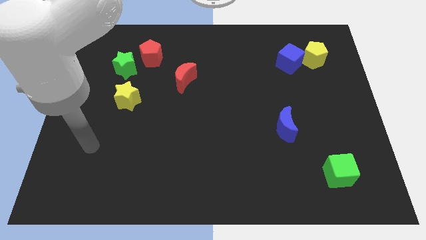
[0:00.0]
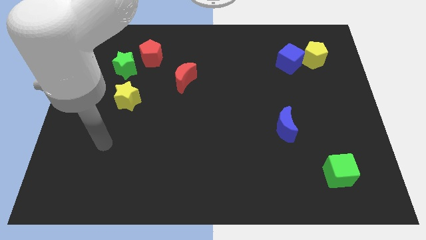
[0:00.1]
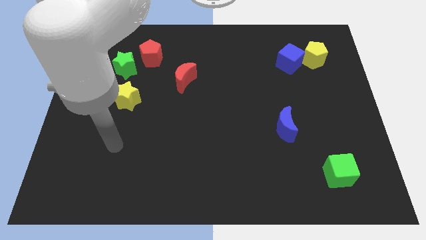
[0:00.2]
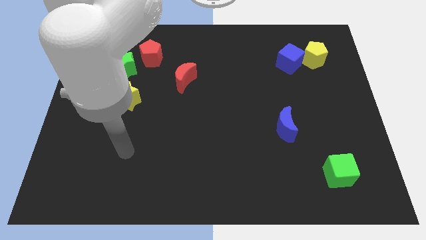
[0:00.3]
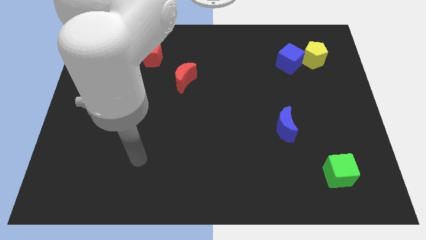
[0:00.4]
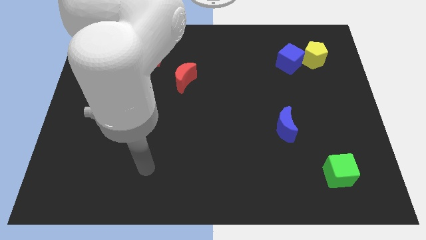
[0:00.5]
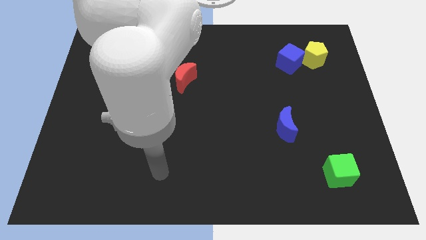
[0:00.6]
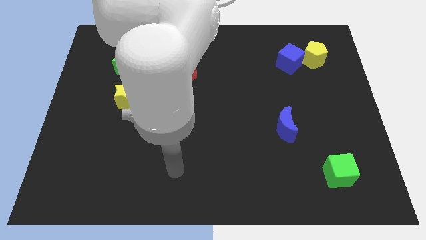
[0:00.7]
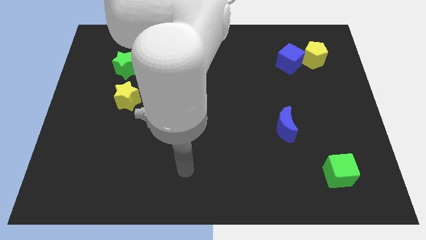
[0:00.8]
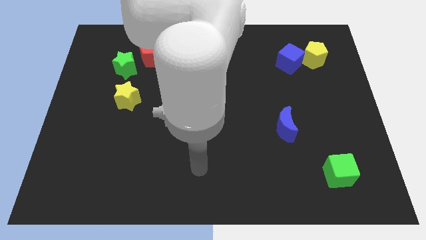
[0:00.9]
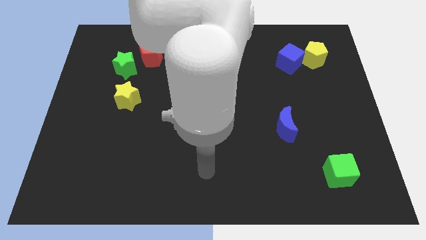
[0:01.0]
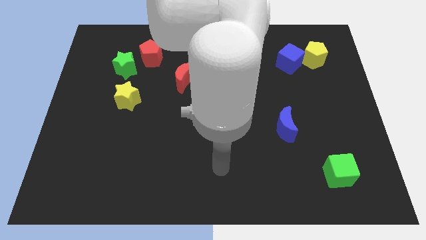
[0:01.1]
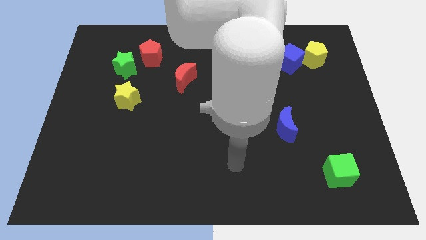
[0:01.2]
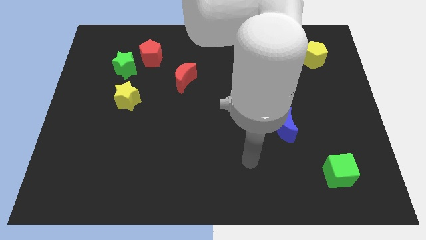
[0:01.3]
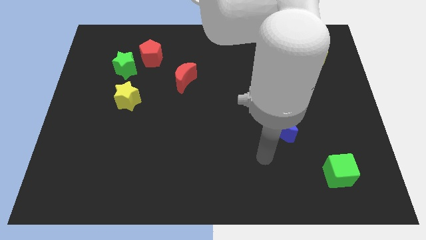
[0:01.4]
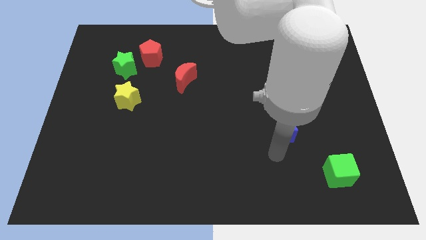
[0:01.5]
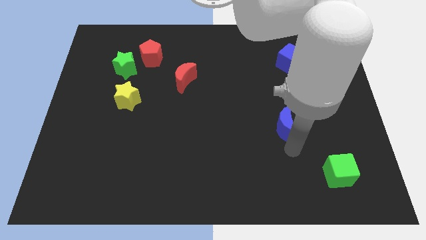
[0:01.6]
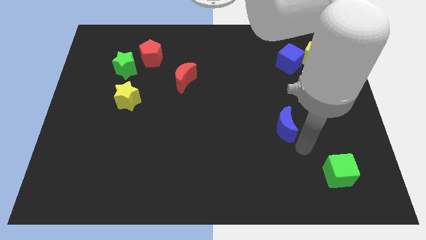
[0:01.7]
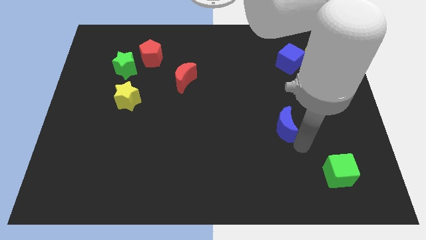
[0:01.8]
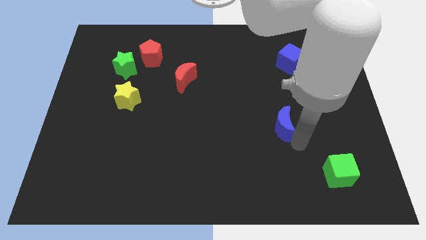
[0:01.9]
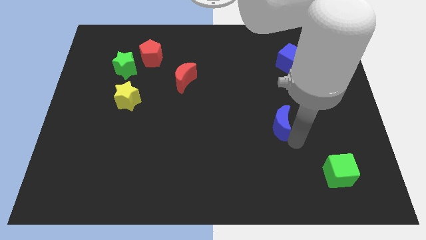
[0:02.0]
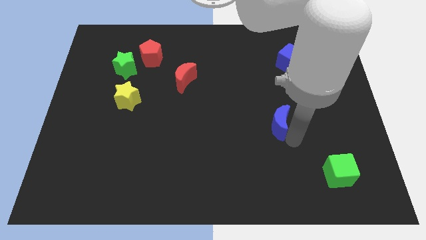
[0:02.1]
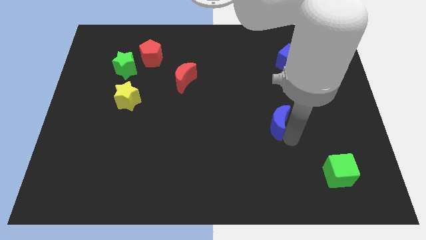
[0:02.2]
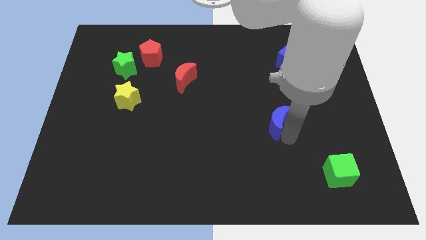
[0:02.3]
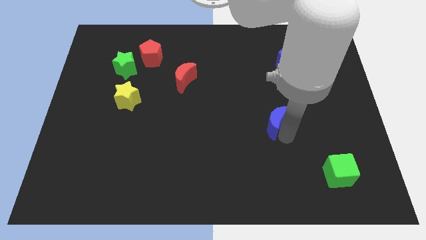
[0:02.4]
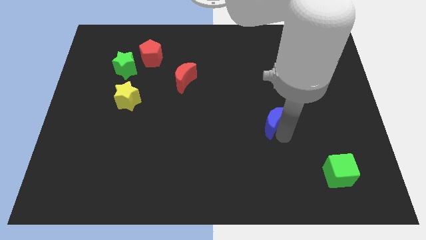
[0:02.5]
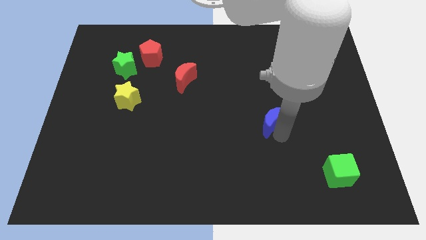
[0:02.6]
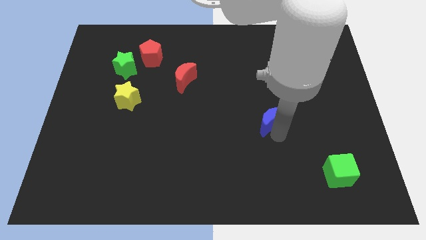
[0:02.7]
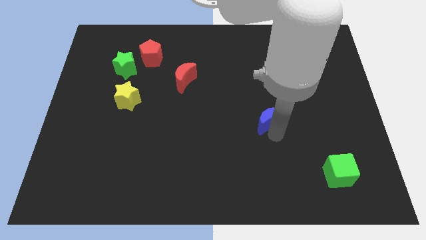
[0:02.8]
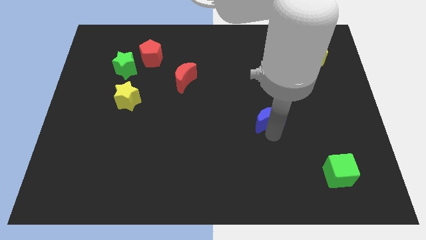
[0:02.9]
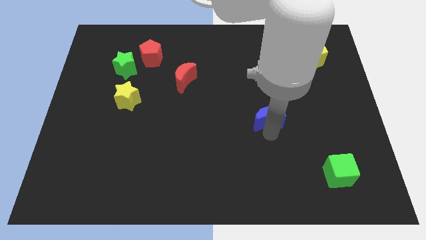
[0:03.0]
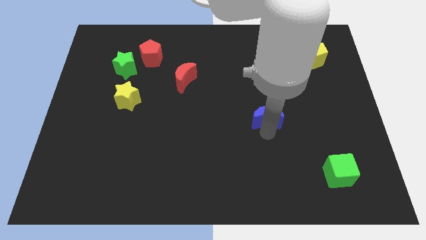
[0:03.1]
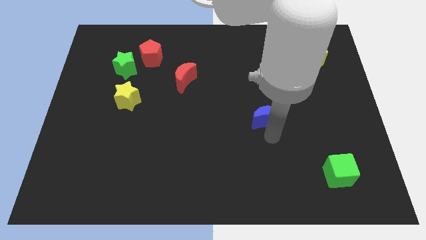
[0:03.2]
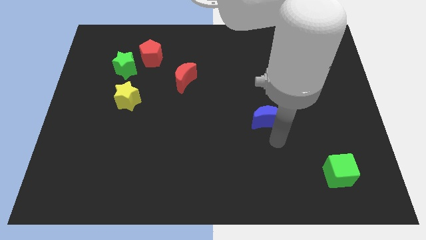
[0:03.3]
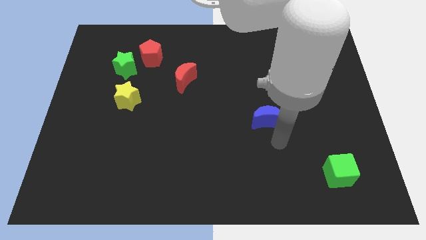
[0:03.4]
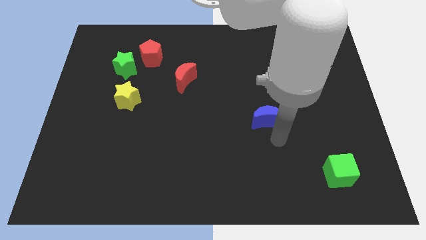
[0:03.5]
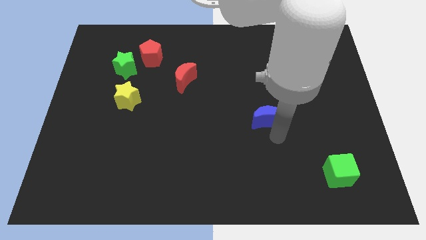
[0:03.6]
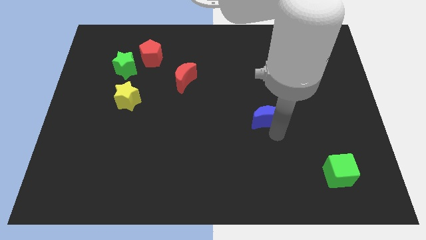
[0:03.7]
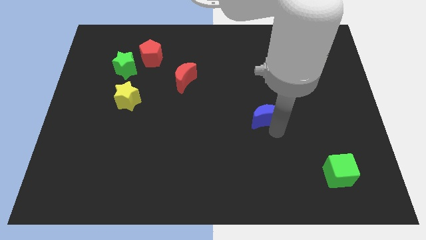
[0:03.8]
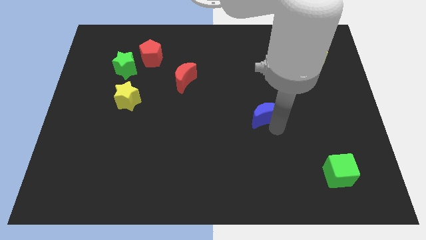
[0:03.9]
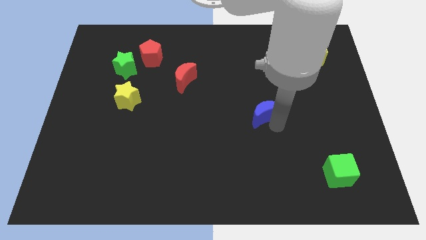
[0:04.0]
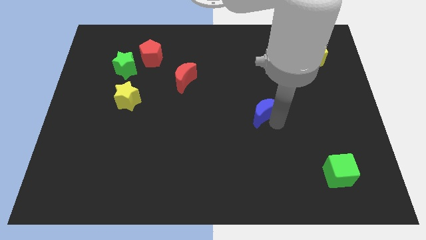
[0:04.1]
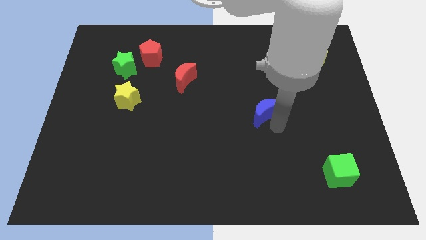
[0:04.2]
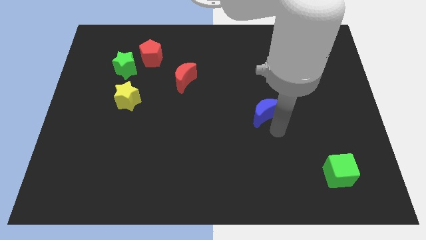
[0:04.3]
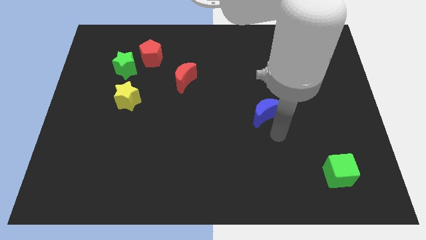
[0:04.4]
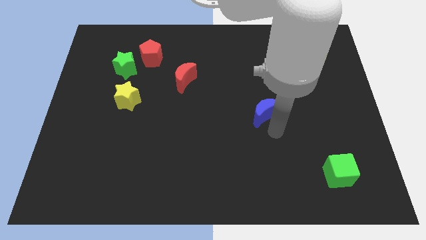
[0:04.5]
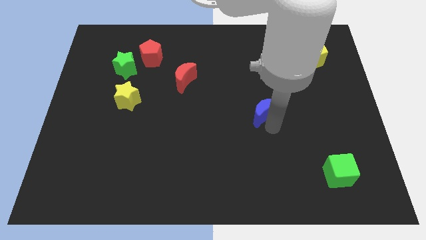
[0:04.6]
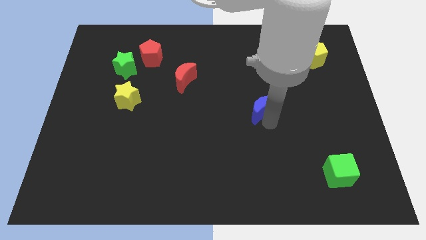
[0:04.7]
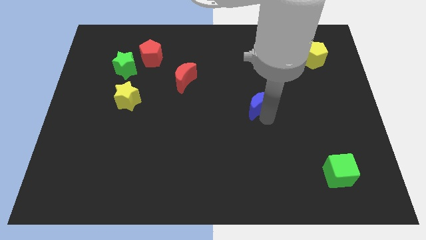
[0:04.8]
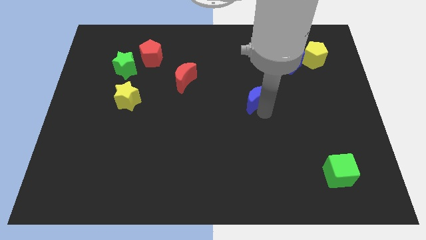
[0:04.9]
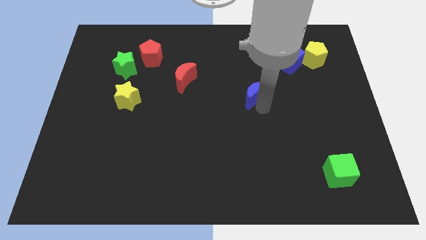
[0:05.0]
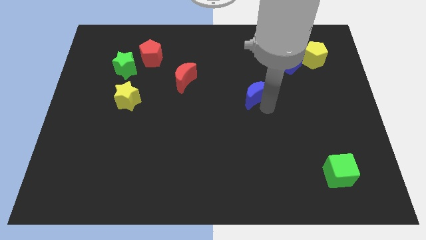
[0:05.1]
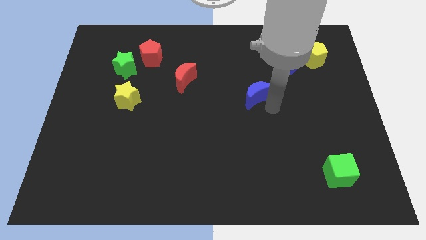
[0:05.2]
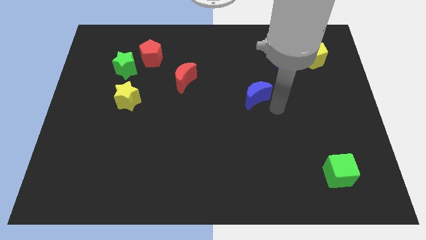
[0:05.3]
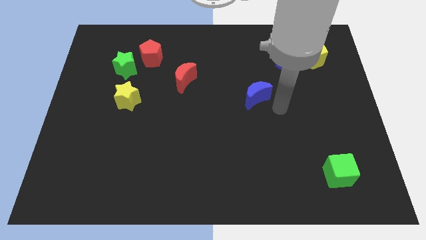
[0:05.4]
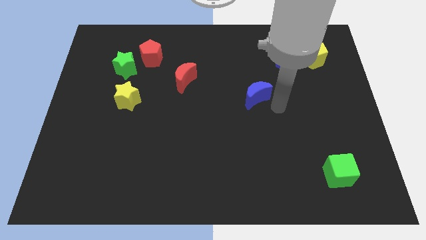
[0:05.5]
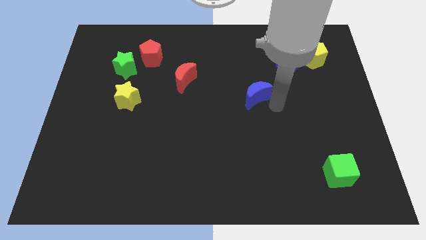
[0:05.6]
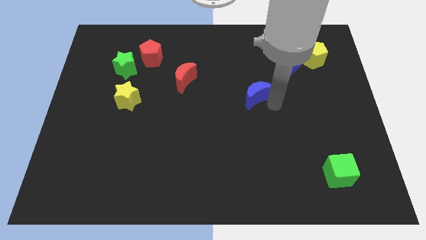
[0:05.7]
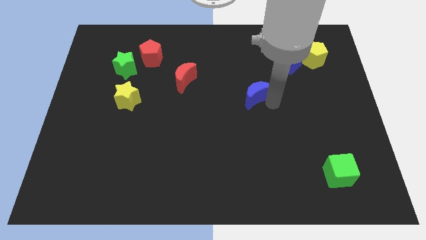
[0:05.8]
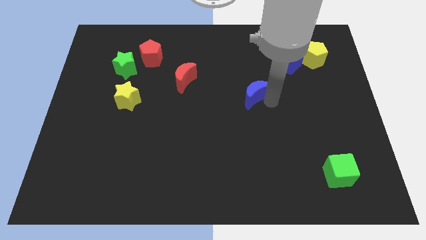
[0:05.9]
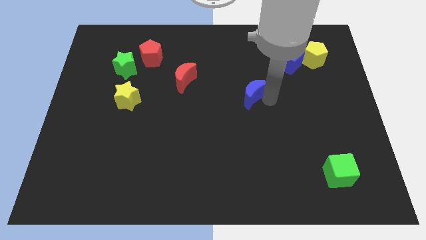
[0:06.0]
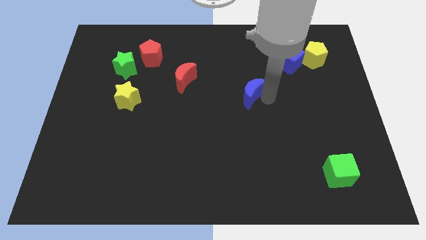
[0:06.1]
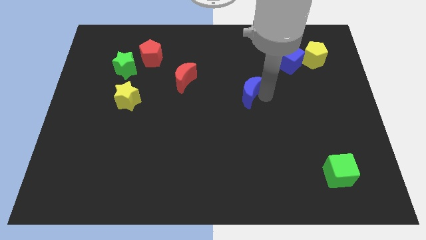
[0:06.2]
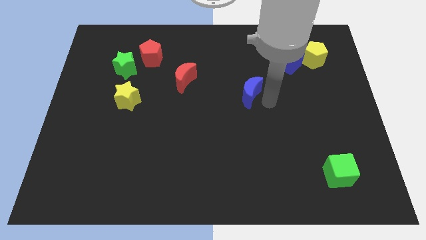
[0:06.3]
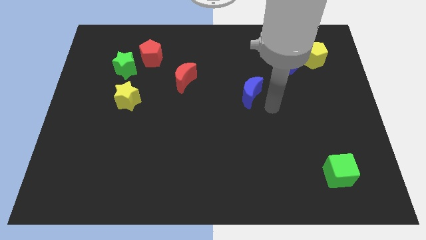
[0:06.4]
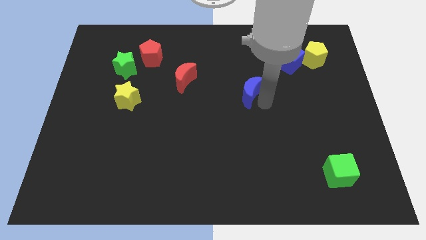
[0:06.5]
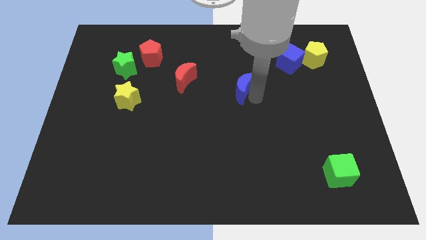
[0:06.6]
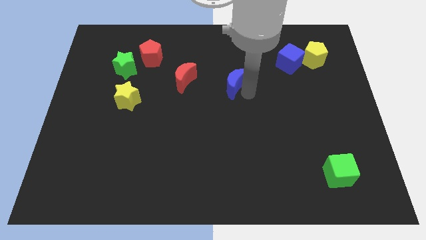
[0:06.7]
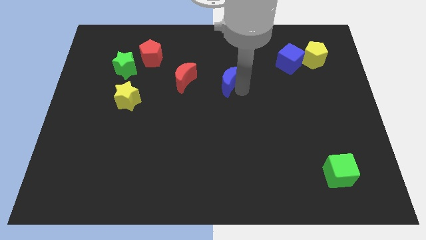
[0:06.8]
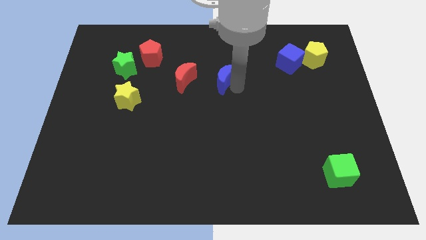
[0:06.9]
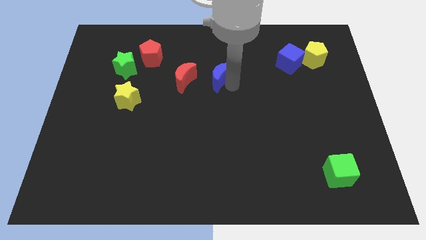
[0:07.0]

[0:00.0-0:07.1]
move the blue moon up and then to the left

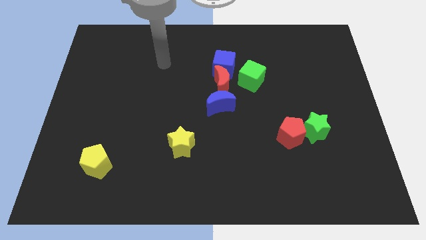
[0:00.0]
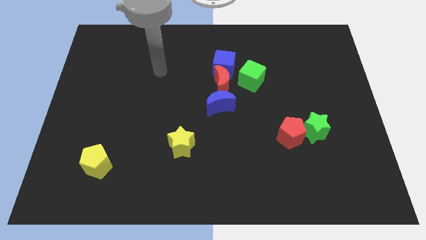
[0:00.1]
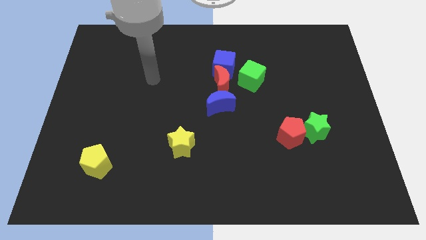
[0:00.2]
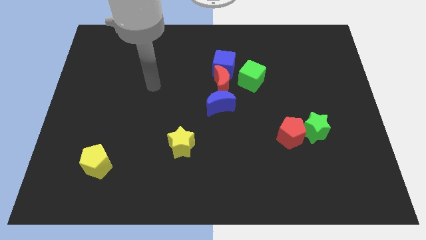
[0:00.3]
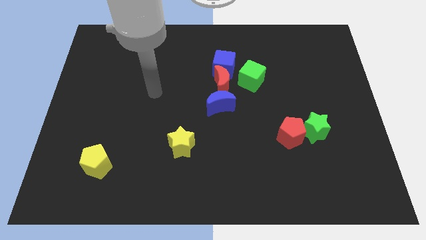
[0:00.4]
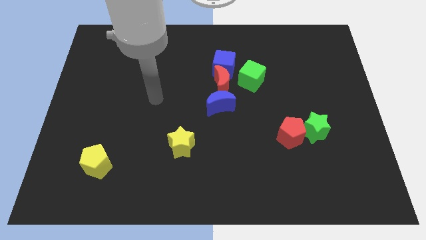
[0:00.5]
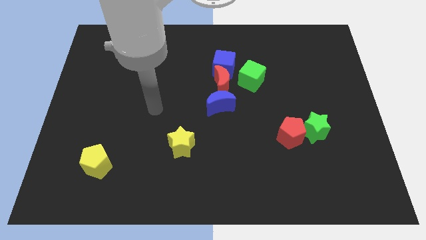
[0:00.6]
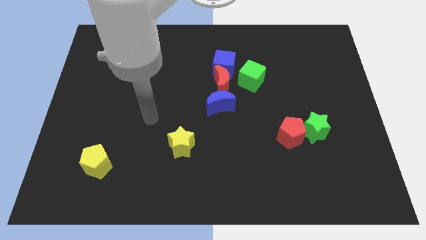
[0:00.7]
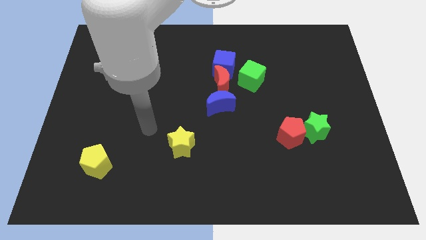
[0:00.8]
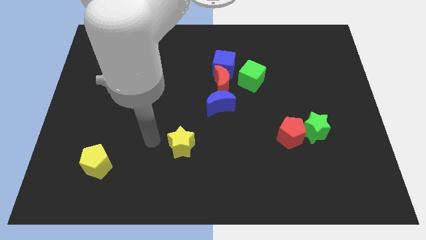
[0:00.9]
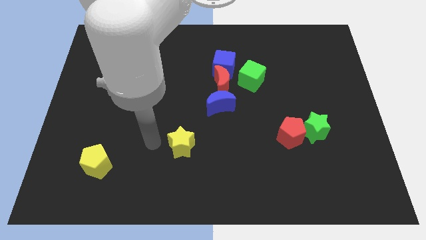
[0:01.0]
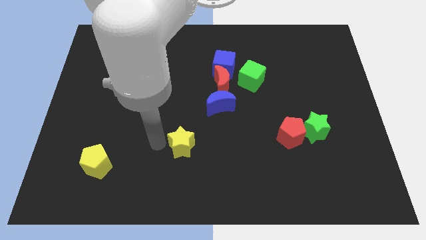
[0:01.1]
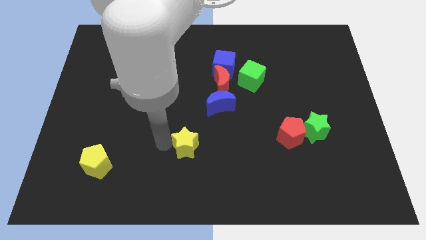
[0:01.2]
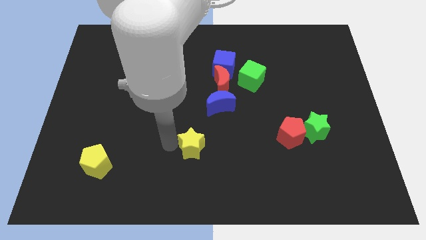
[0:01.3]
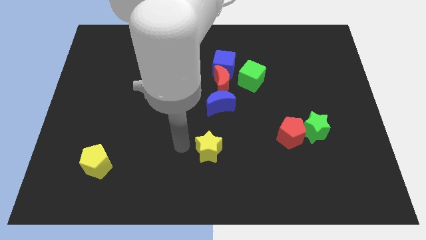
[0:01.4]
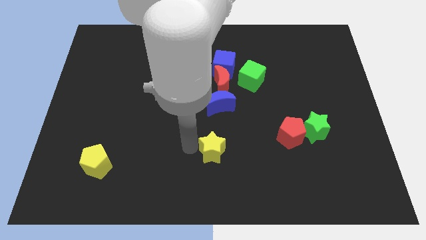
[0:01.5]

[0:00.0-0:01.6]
slide the yellow star to the right a little bit
